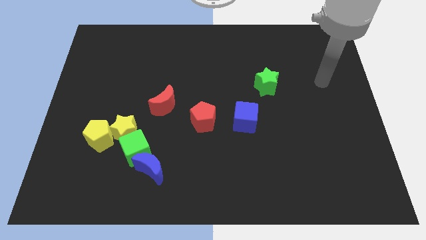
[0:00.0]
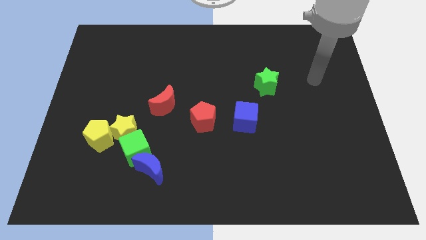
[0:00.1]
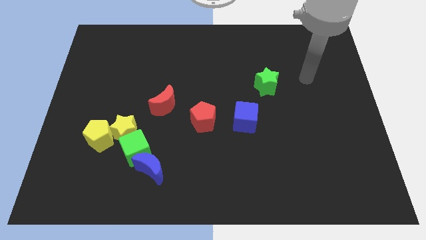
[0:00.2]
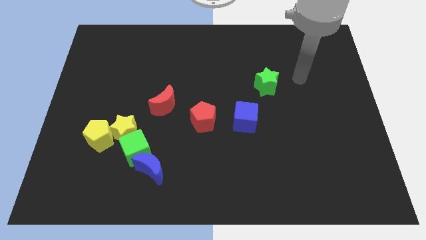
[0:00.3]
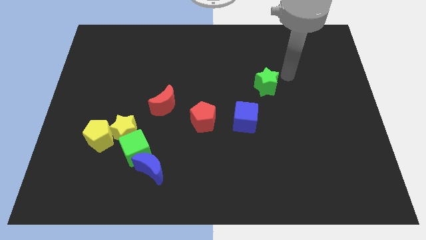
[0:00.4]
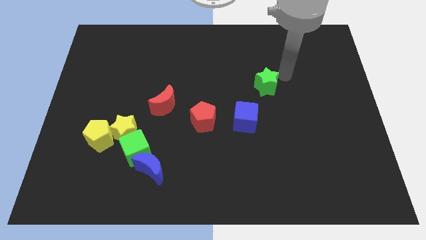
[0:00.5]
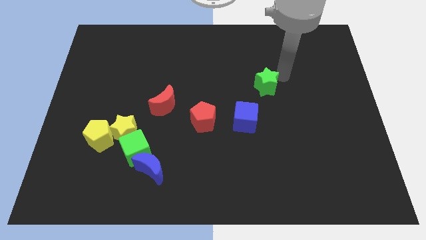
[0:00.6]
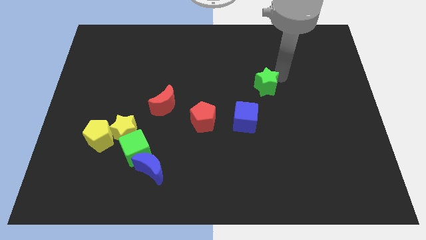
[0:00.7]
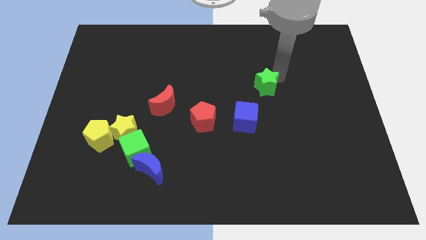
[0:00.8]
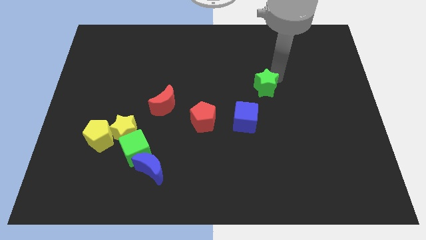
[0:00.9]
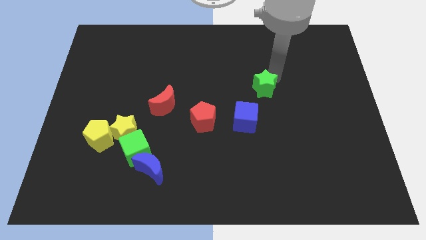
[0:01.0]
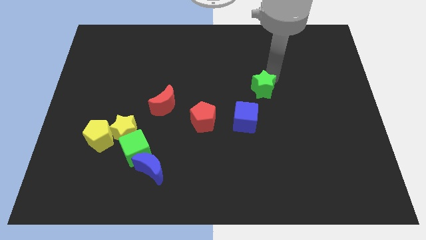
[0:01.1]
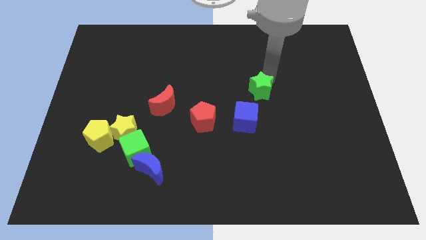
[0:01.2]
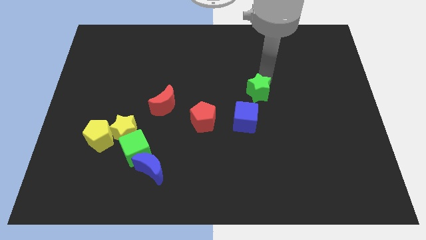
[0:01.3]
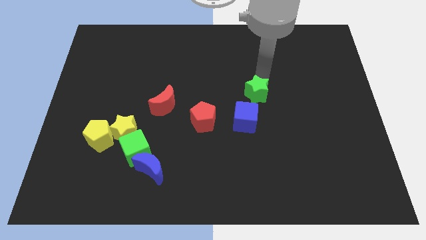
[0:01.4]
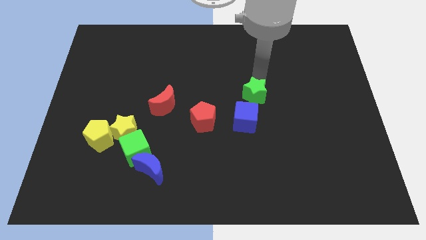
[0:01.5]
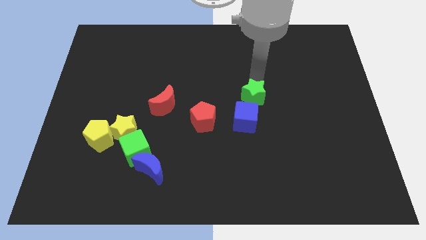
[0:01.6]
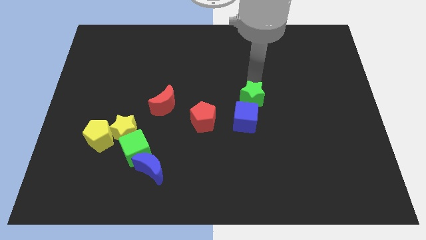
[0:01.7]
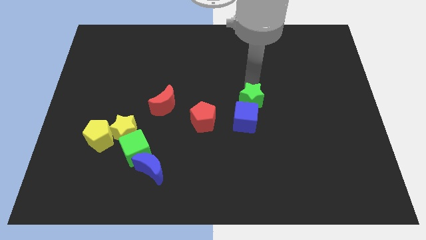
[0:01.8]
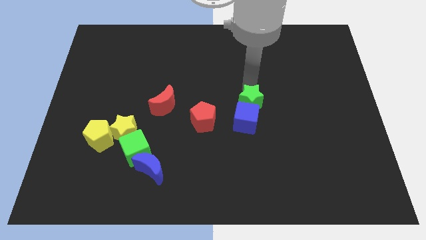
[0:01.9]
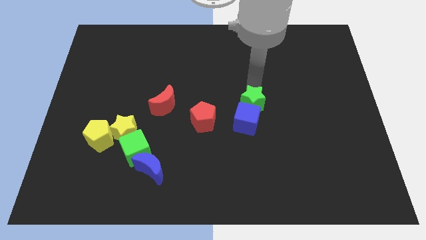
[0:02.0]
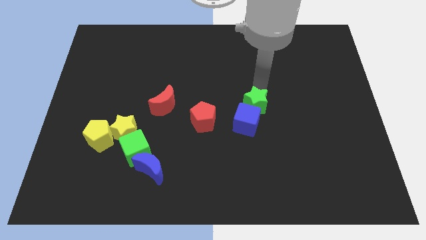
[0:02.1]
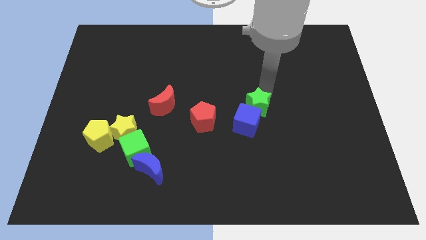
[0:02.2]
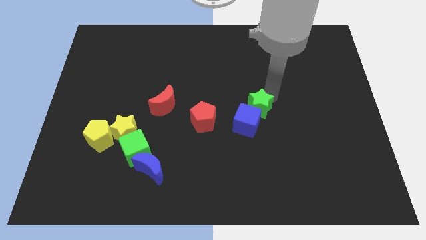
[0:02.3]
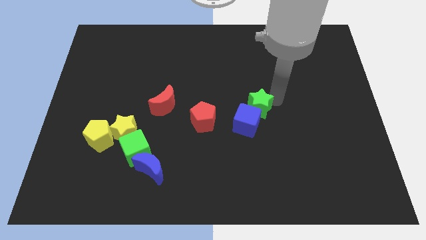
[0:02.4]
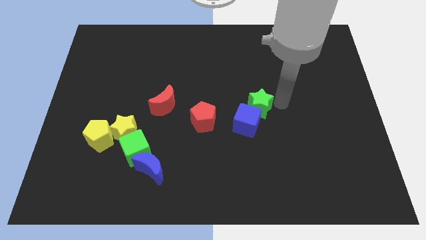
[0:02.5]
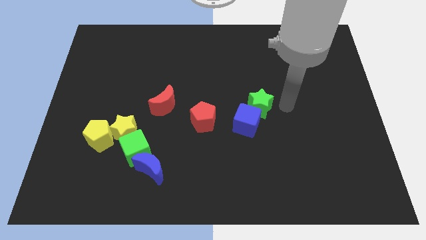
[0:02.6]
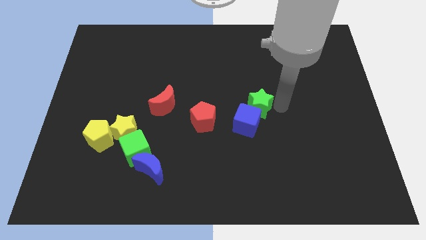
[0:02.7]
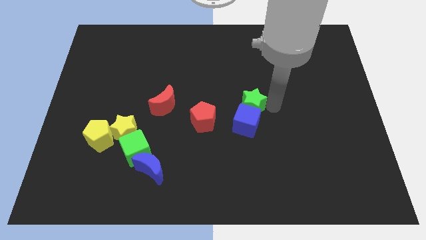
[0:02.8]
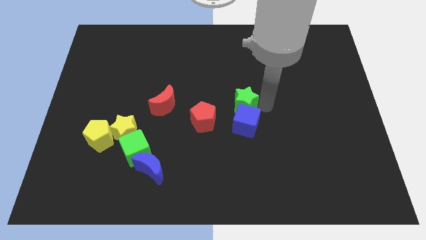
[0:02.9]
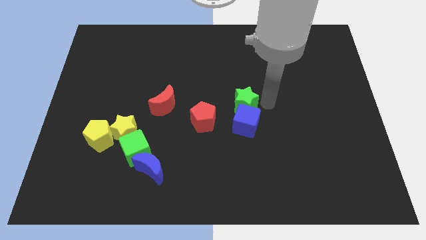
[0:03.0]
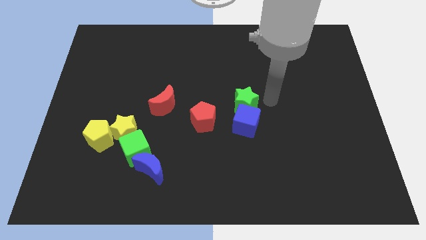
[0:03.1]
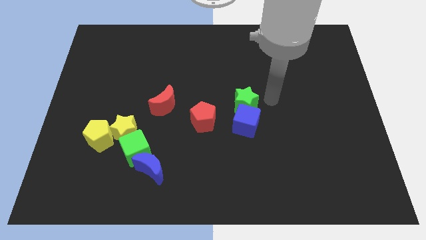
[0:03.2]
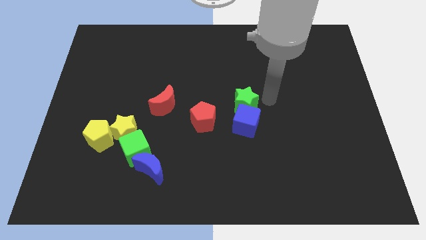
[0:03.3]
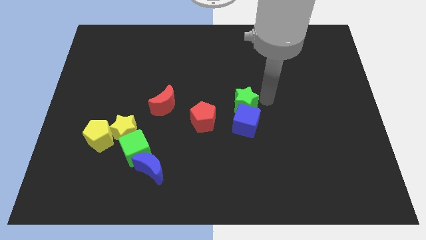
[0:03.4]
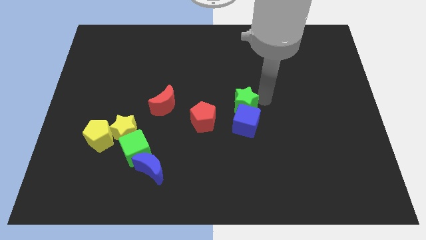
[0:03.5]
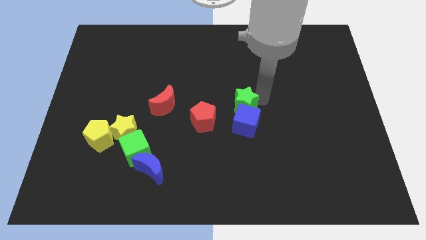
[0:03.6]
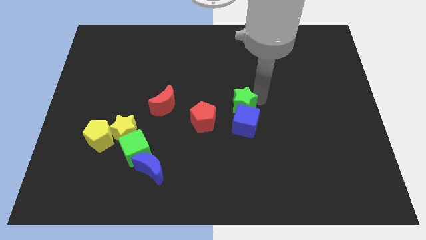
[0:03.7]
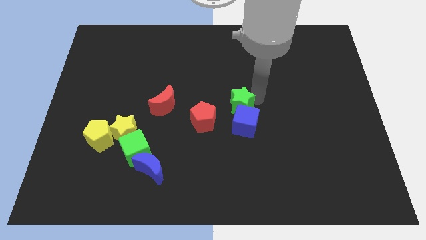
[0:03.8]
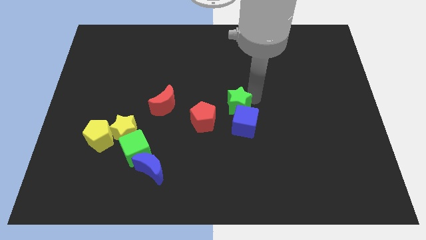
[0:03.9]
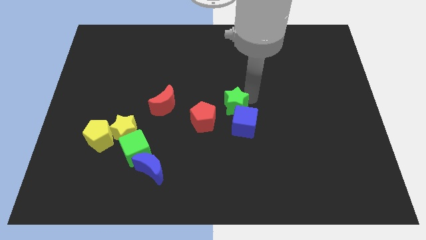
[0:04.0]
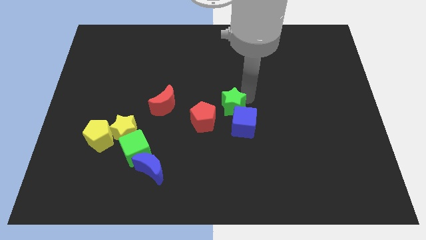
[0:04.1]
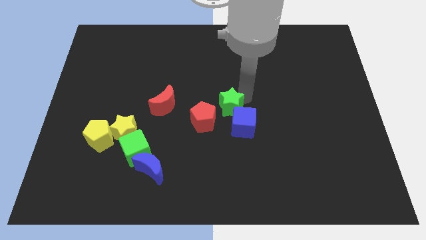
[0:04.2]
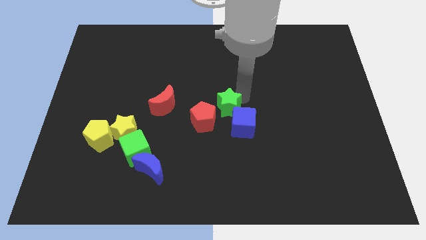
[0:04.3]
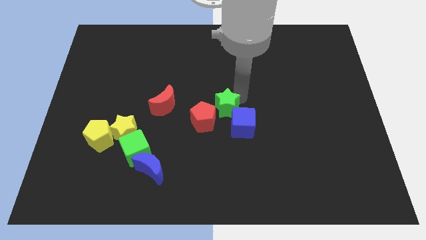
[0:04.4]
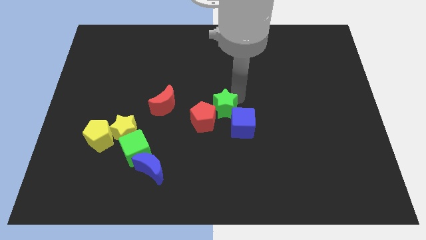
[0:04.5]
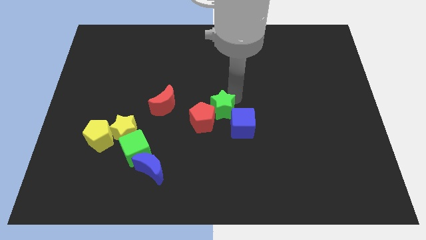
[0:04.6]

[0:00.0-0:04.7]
move the green star to the red pentagon

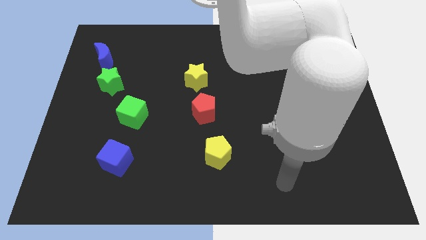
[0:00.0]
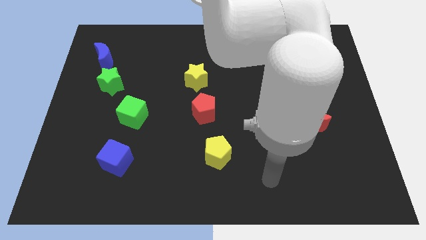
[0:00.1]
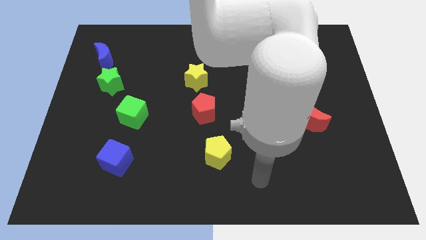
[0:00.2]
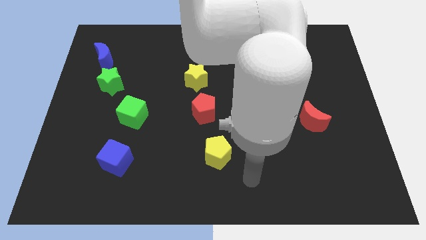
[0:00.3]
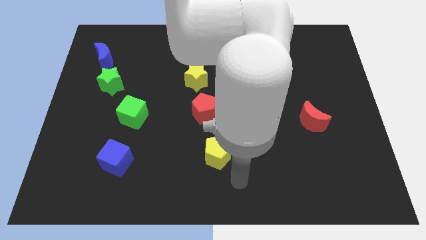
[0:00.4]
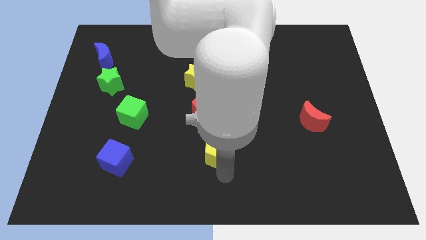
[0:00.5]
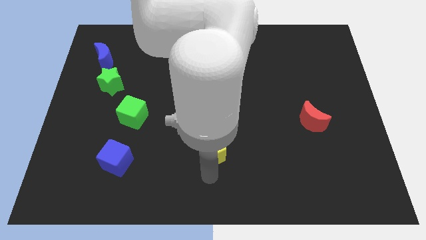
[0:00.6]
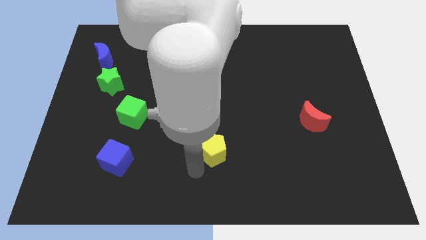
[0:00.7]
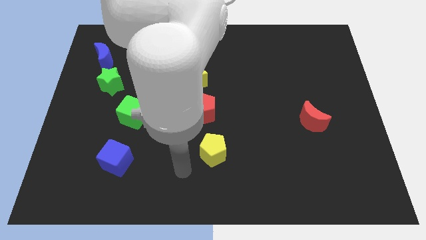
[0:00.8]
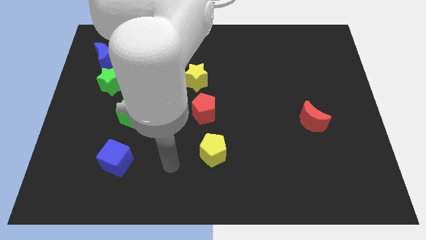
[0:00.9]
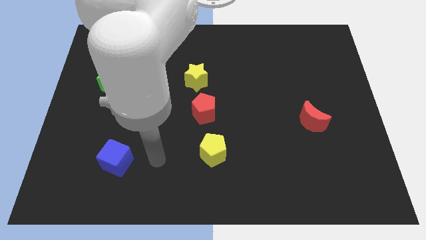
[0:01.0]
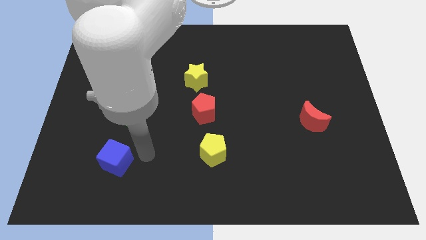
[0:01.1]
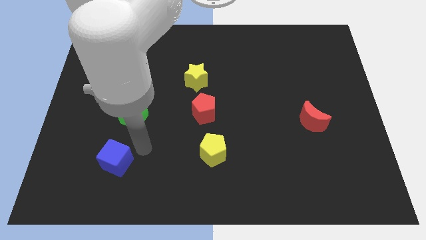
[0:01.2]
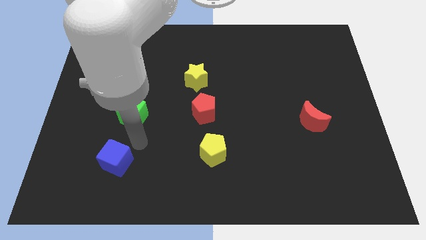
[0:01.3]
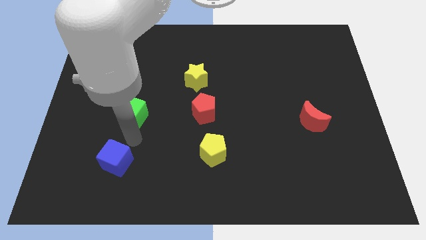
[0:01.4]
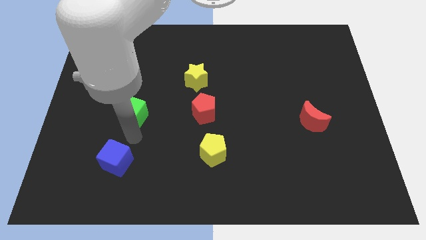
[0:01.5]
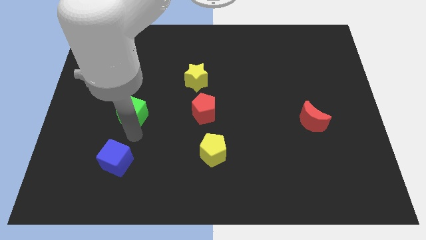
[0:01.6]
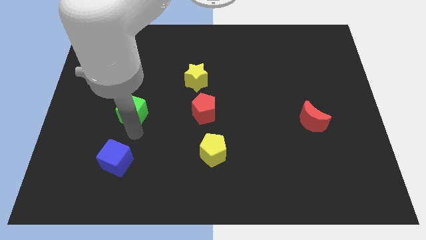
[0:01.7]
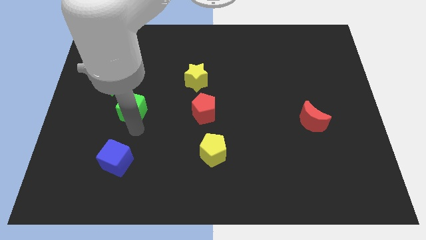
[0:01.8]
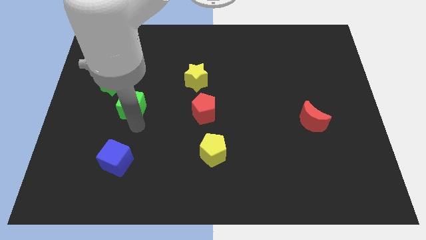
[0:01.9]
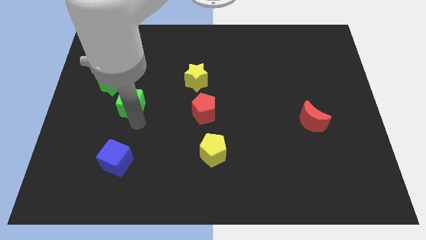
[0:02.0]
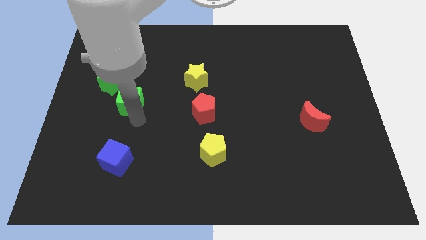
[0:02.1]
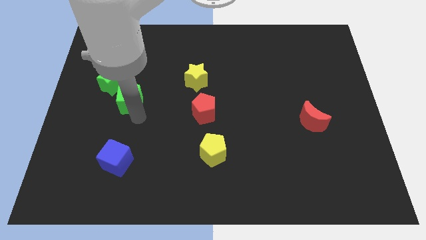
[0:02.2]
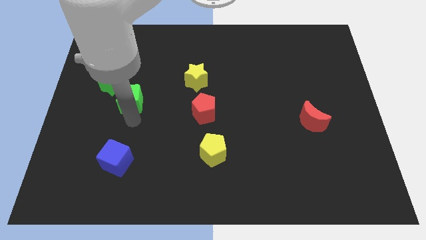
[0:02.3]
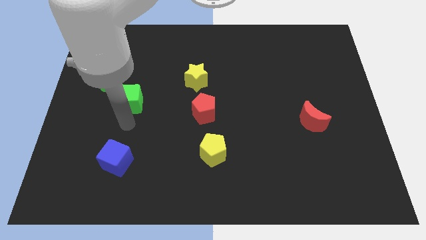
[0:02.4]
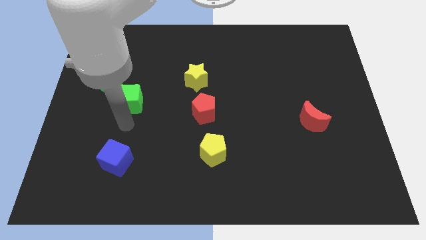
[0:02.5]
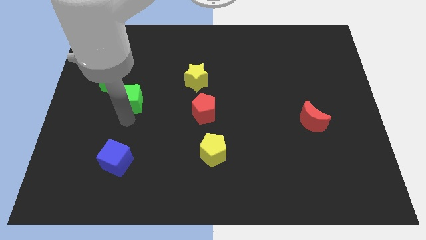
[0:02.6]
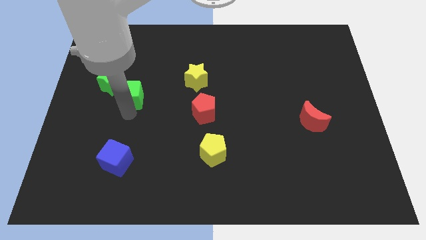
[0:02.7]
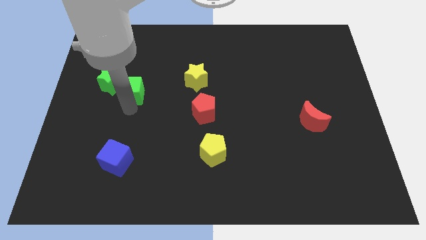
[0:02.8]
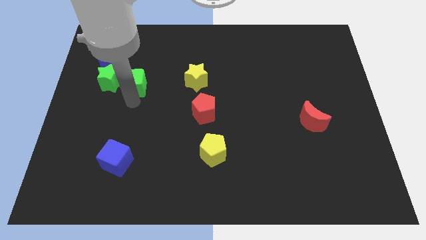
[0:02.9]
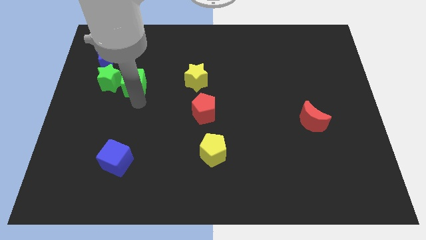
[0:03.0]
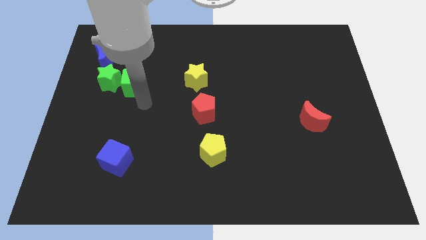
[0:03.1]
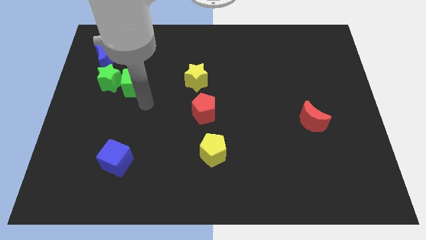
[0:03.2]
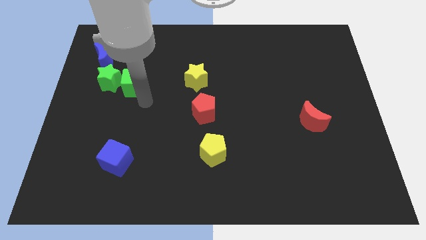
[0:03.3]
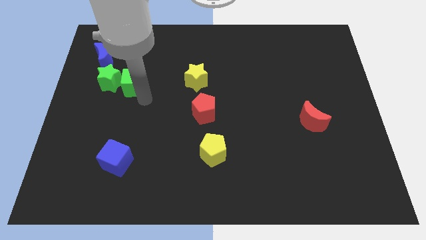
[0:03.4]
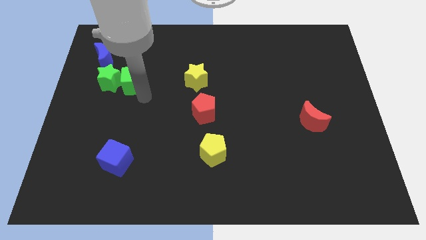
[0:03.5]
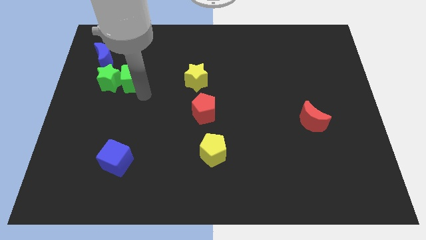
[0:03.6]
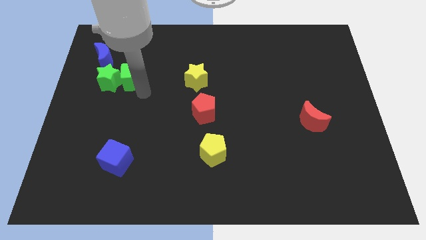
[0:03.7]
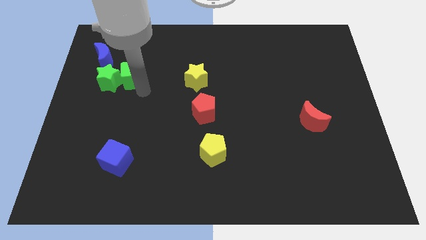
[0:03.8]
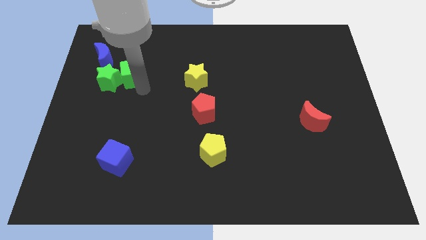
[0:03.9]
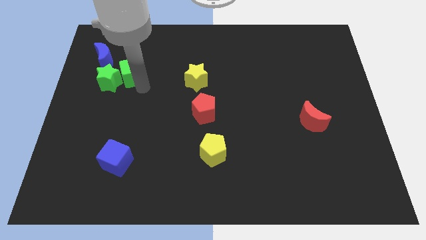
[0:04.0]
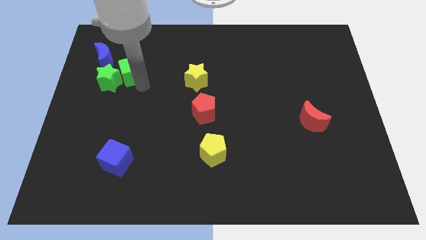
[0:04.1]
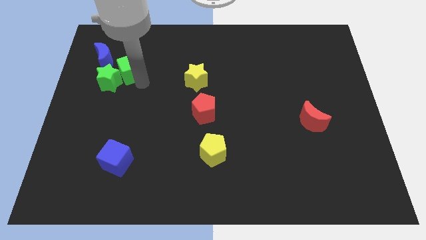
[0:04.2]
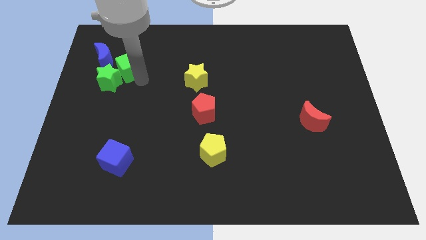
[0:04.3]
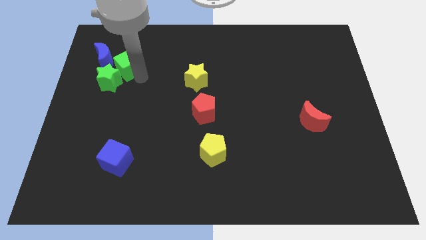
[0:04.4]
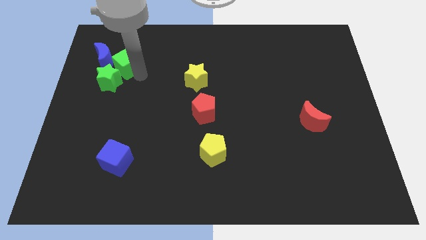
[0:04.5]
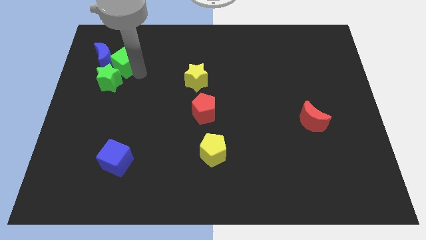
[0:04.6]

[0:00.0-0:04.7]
push the green cube close to the blue moon
